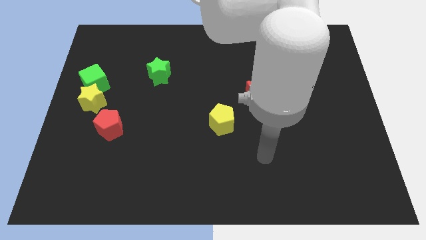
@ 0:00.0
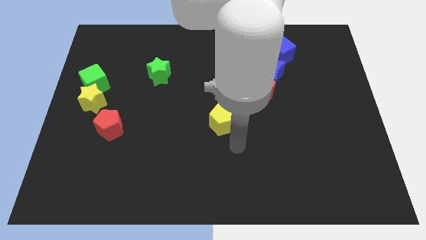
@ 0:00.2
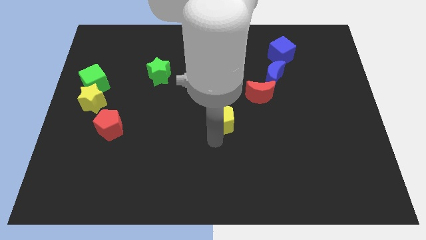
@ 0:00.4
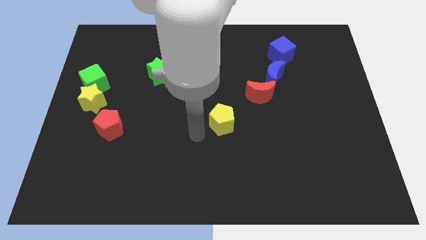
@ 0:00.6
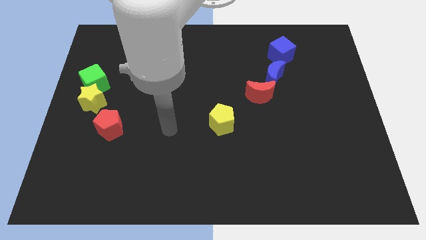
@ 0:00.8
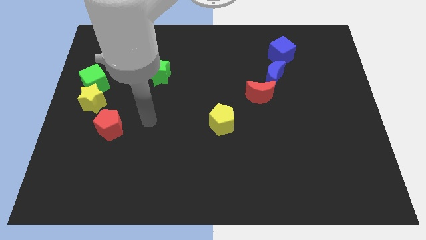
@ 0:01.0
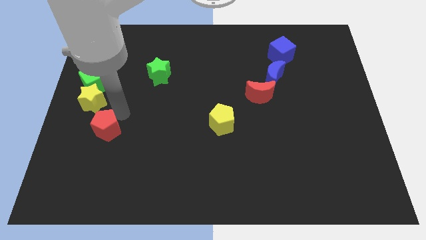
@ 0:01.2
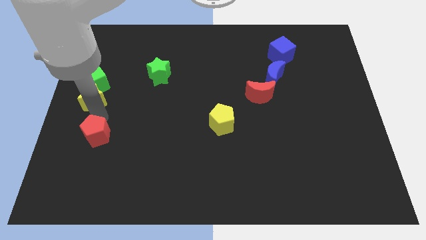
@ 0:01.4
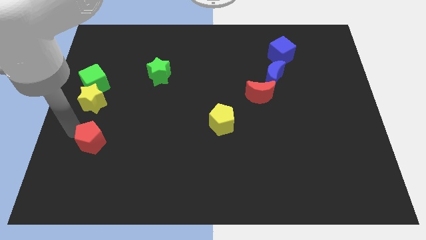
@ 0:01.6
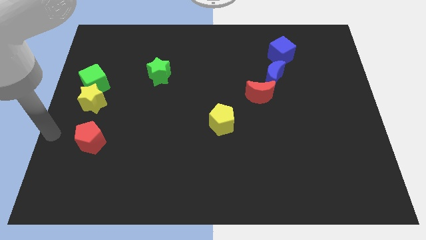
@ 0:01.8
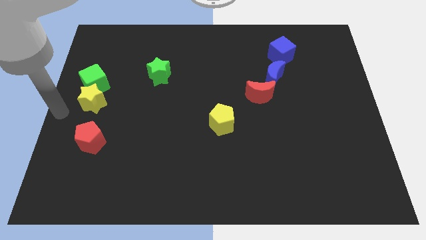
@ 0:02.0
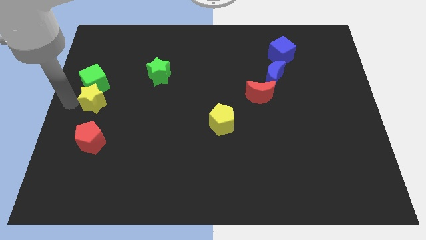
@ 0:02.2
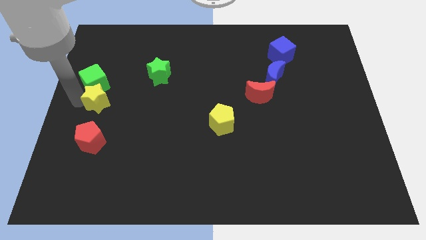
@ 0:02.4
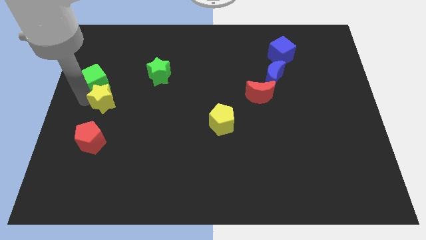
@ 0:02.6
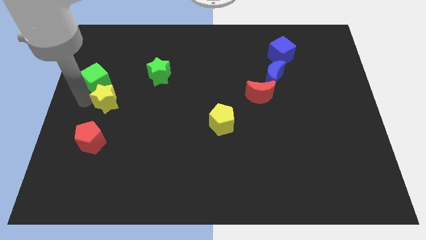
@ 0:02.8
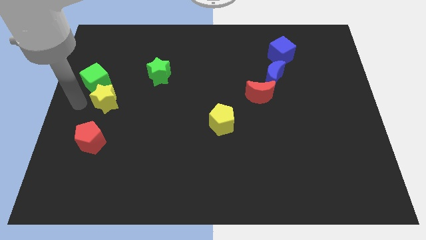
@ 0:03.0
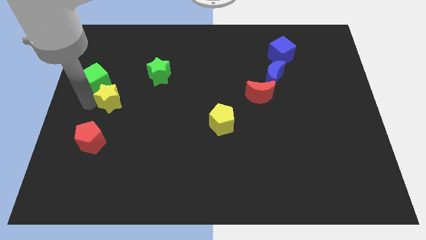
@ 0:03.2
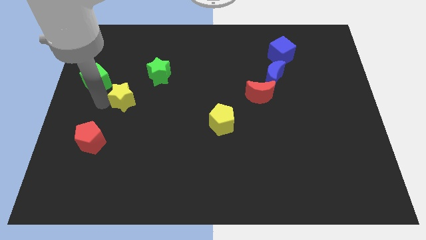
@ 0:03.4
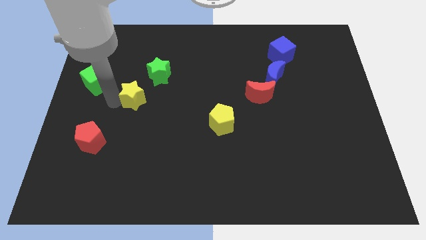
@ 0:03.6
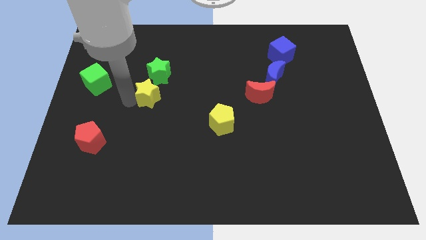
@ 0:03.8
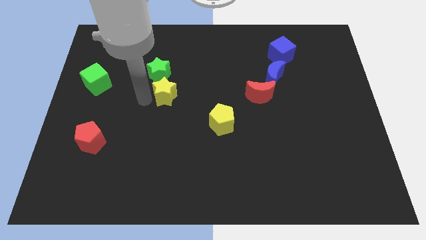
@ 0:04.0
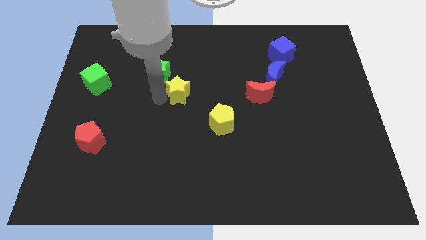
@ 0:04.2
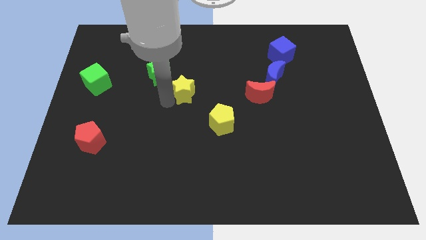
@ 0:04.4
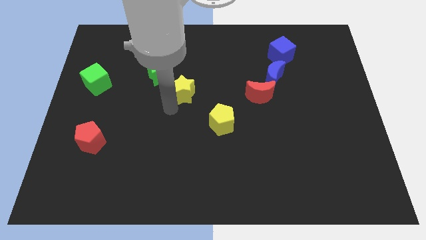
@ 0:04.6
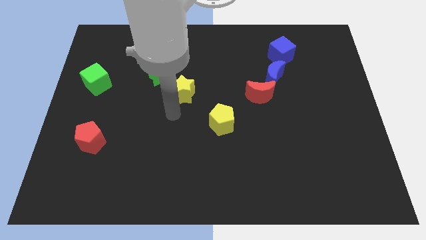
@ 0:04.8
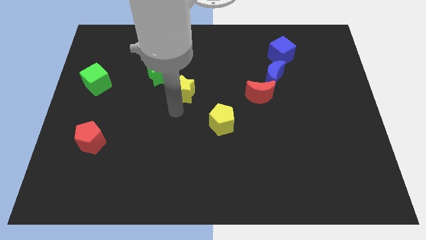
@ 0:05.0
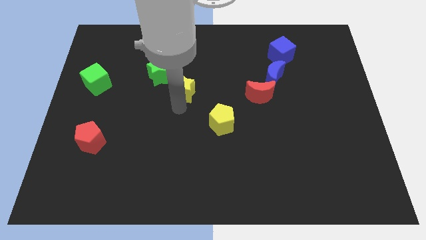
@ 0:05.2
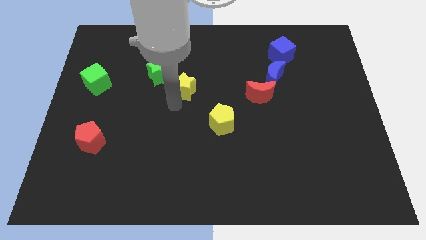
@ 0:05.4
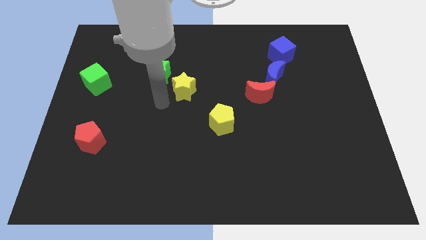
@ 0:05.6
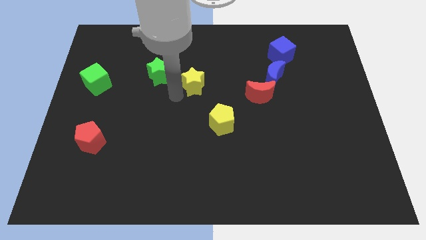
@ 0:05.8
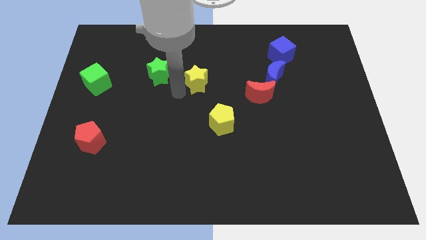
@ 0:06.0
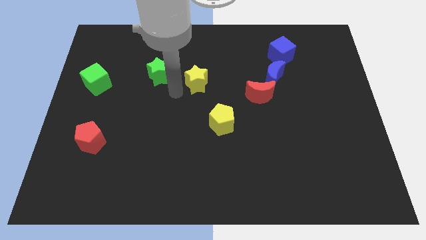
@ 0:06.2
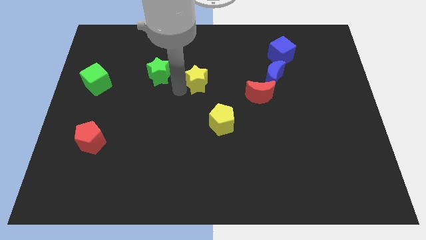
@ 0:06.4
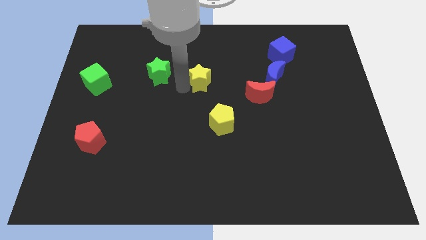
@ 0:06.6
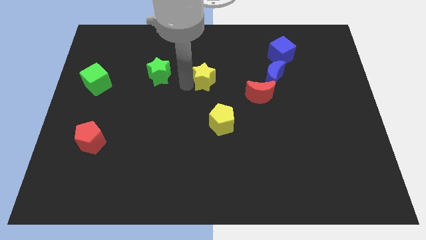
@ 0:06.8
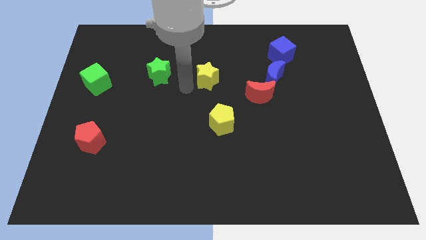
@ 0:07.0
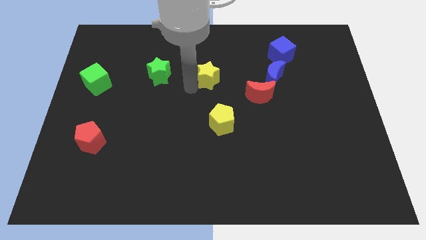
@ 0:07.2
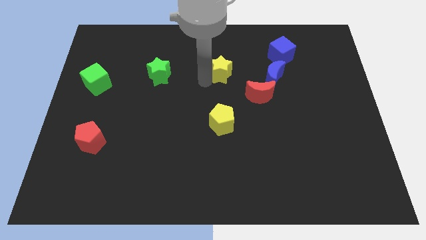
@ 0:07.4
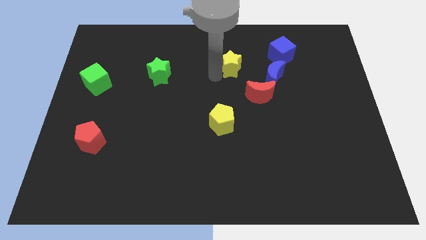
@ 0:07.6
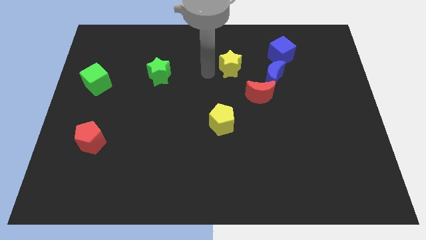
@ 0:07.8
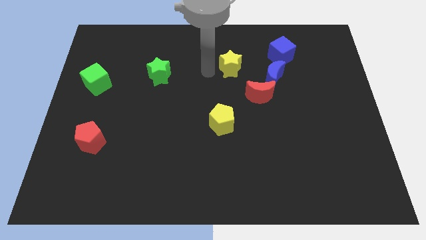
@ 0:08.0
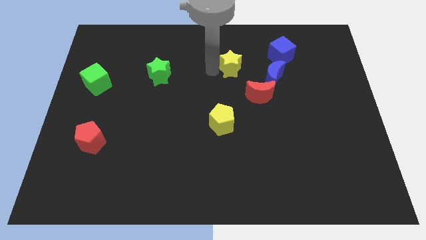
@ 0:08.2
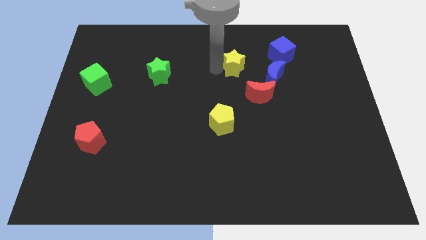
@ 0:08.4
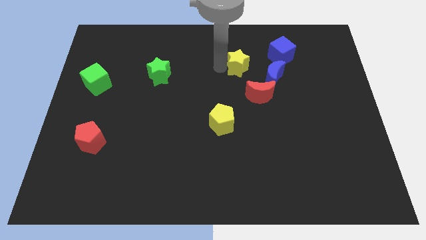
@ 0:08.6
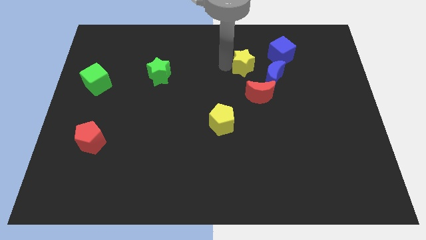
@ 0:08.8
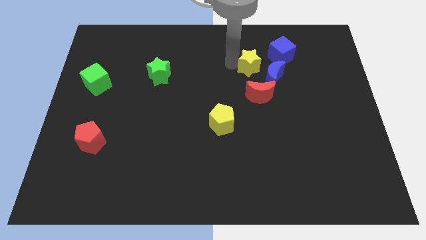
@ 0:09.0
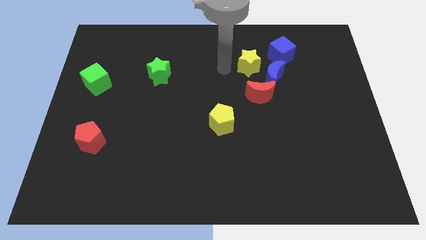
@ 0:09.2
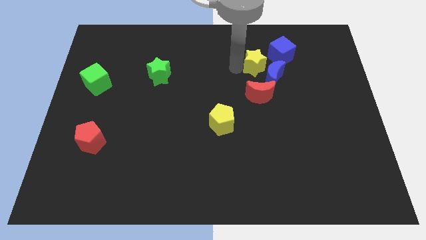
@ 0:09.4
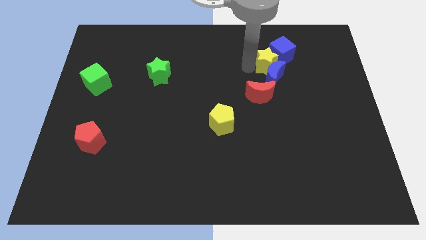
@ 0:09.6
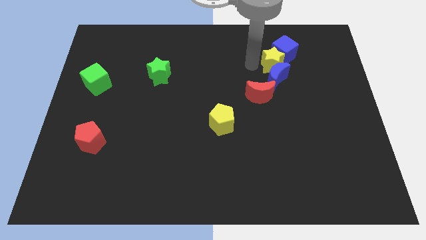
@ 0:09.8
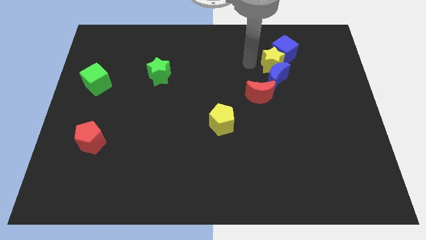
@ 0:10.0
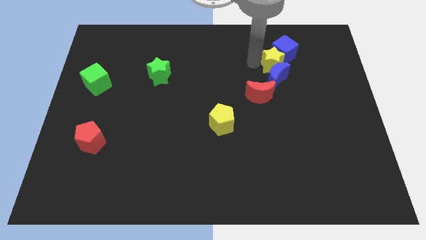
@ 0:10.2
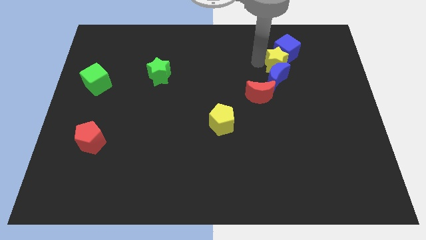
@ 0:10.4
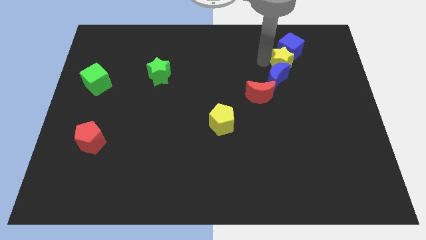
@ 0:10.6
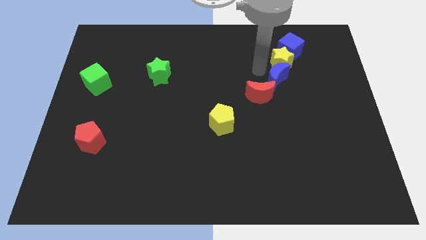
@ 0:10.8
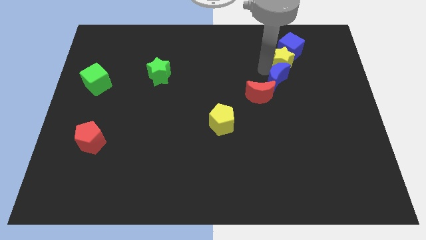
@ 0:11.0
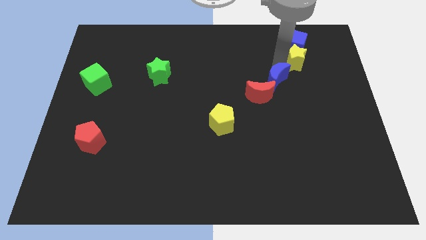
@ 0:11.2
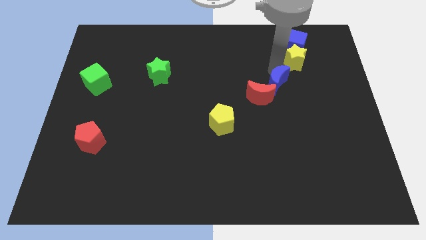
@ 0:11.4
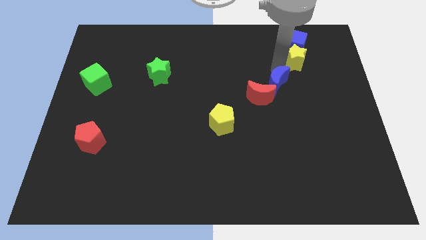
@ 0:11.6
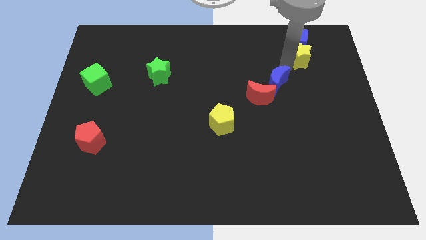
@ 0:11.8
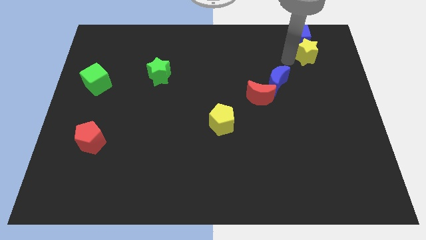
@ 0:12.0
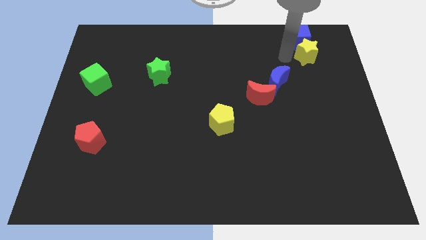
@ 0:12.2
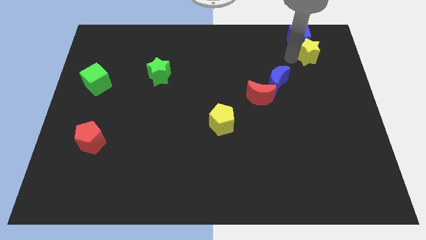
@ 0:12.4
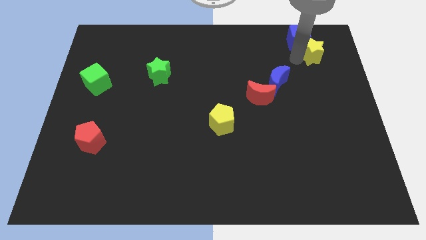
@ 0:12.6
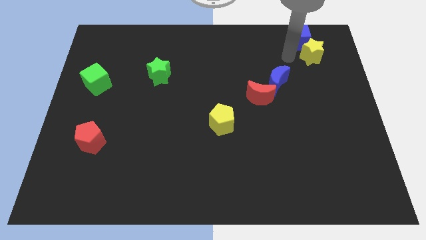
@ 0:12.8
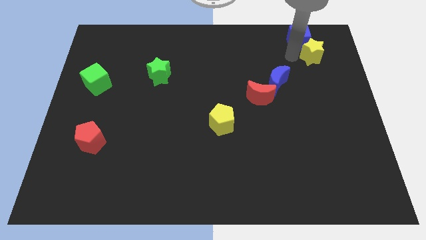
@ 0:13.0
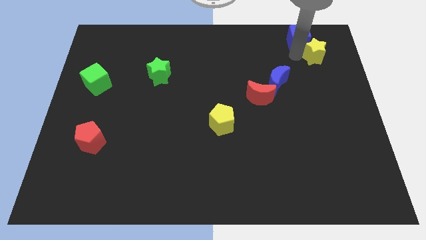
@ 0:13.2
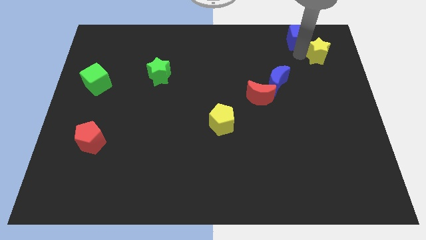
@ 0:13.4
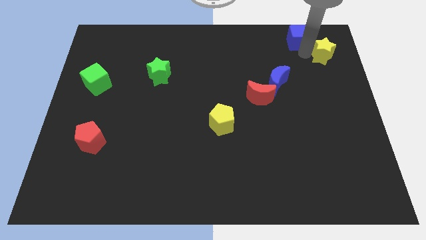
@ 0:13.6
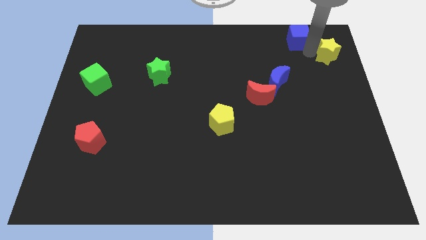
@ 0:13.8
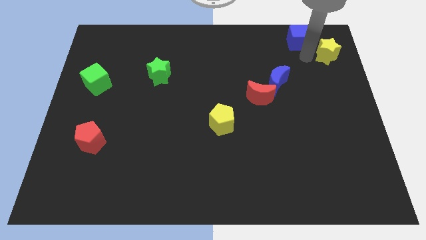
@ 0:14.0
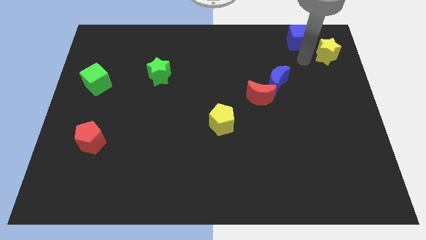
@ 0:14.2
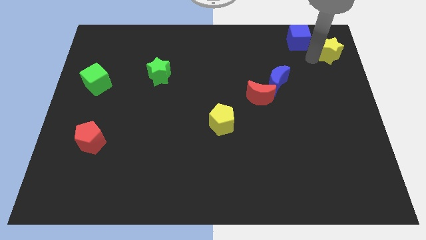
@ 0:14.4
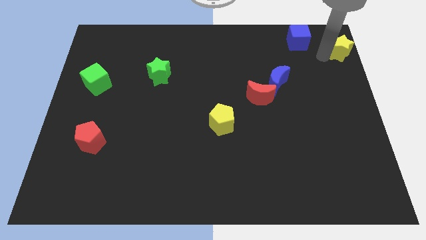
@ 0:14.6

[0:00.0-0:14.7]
move the yellow star to the top right corner
